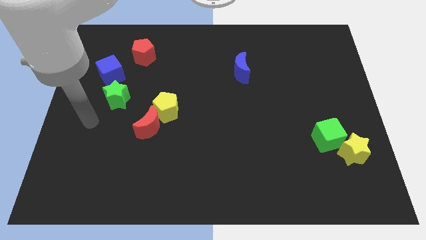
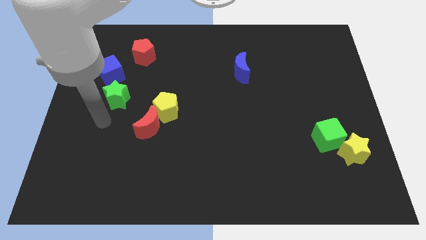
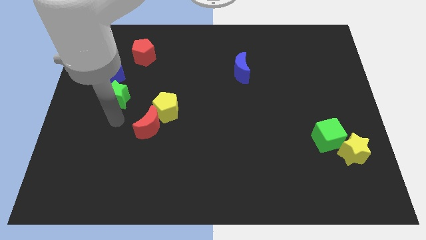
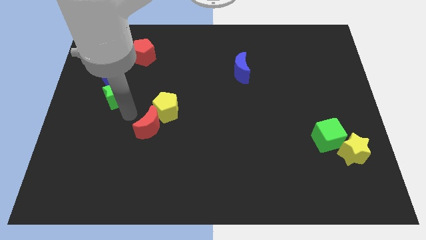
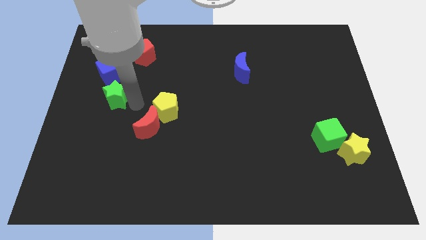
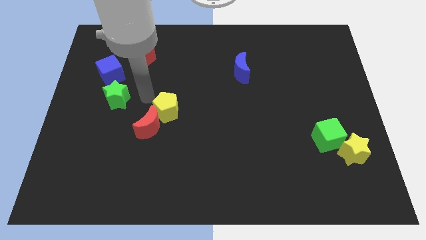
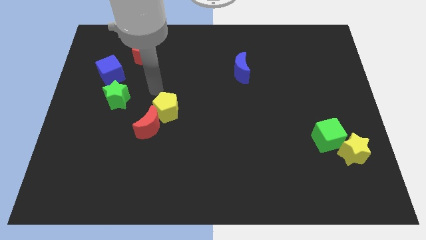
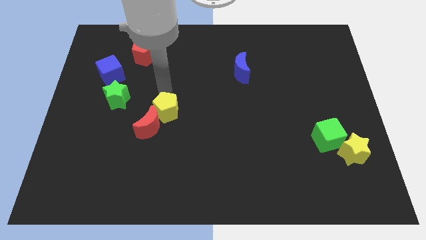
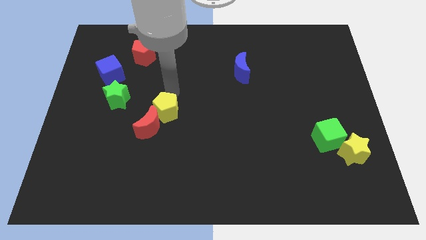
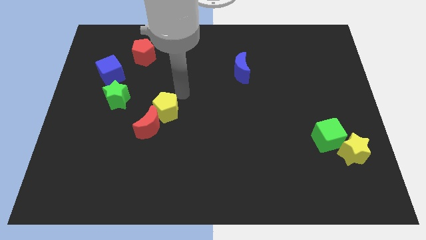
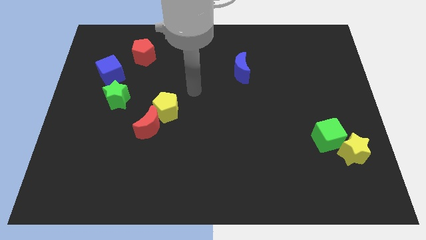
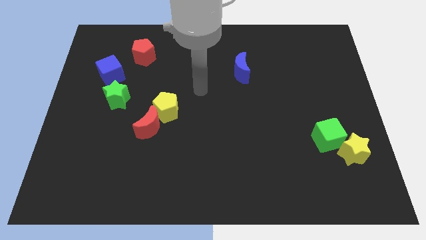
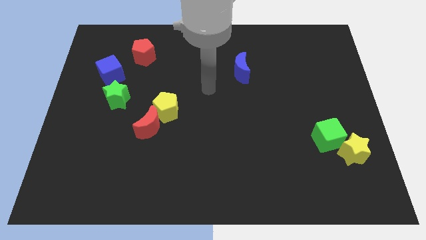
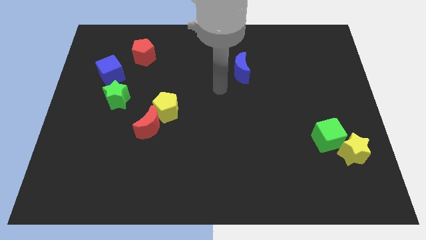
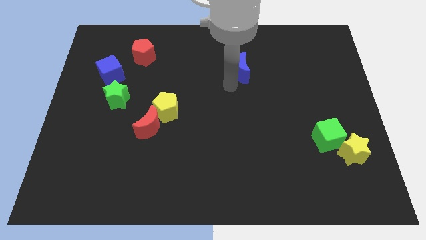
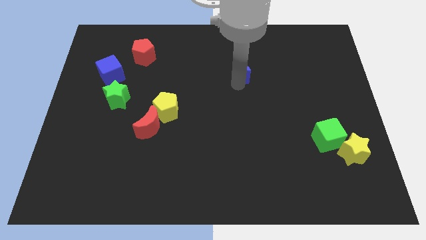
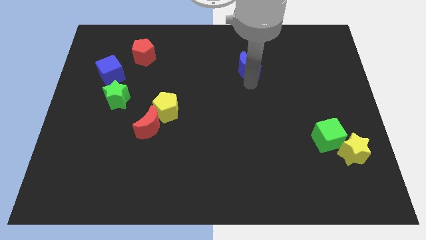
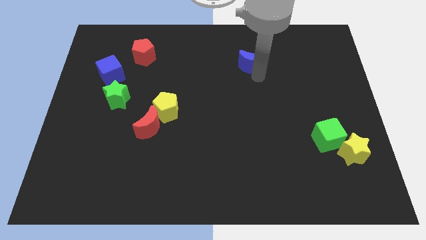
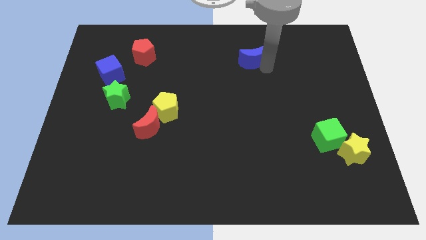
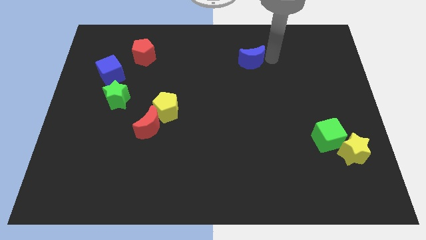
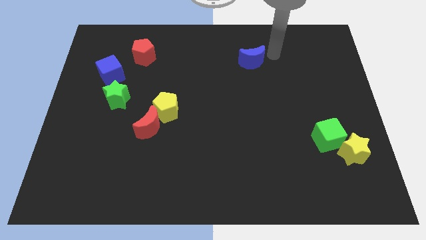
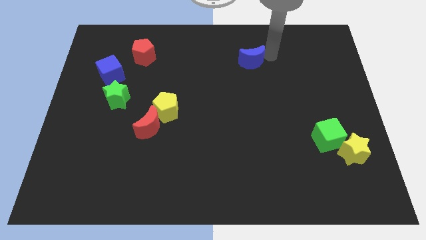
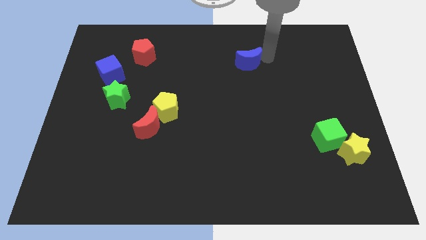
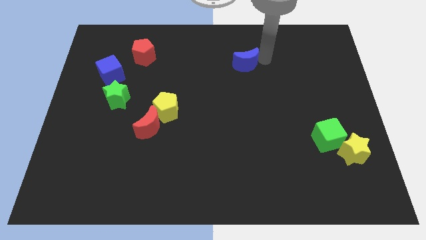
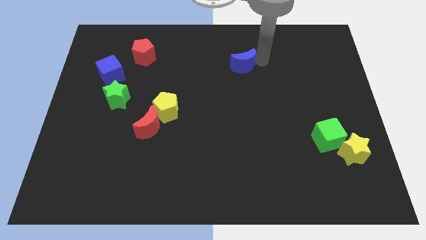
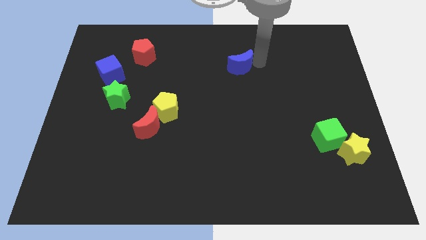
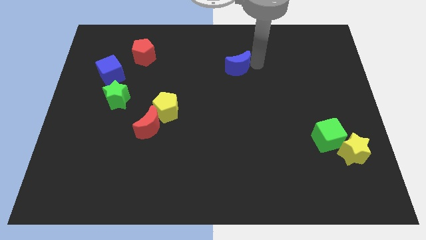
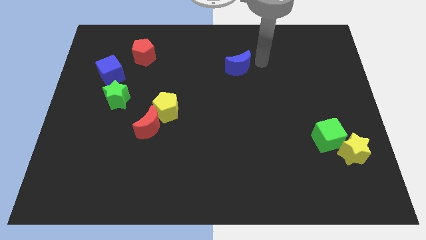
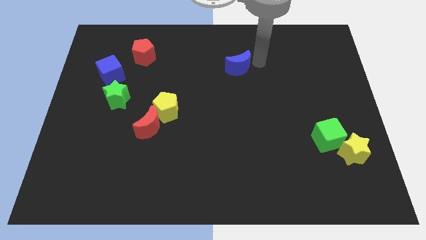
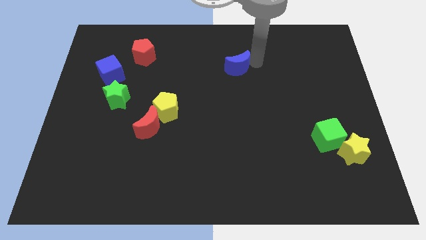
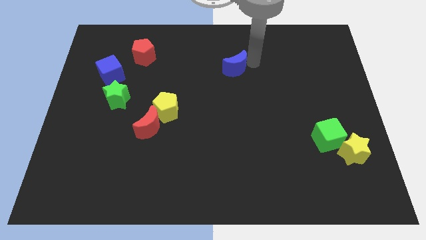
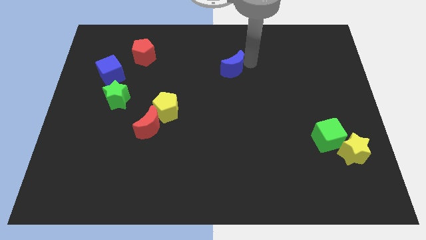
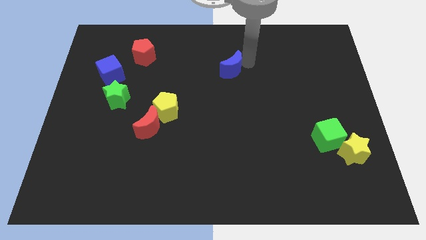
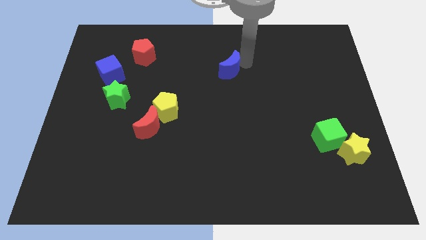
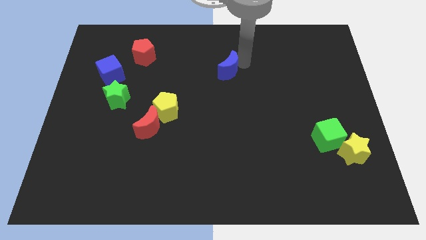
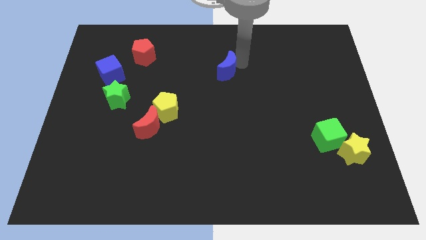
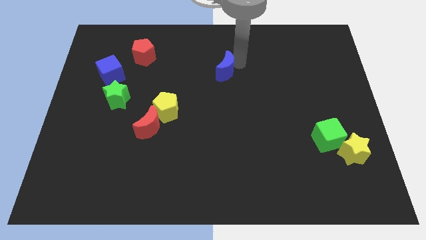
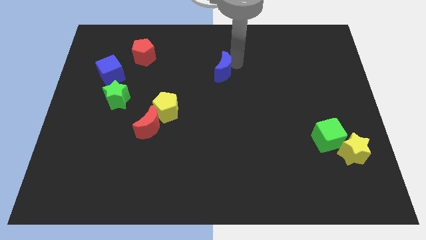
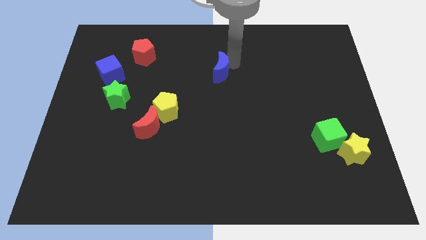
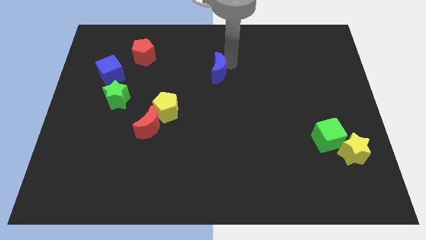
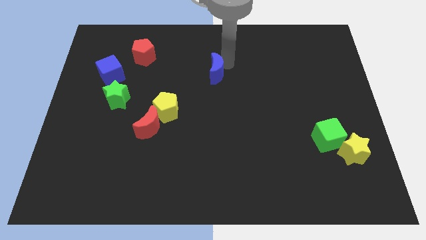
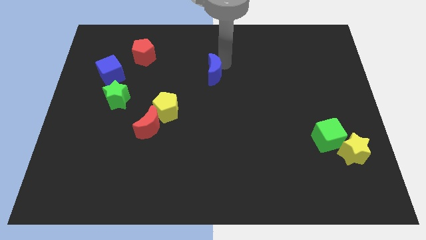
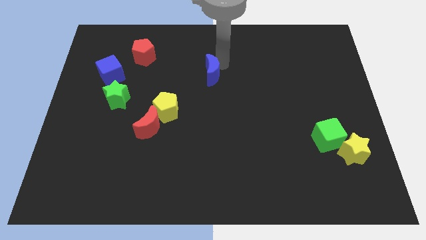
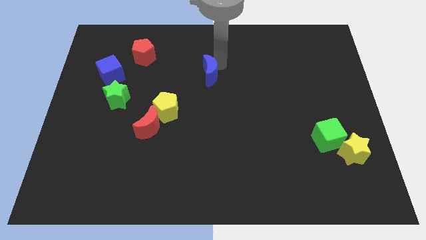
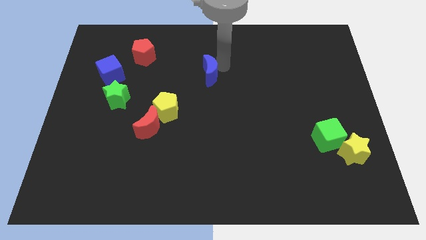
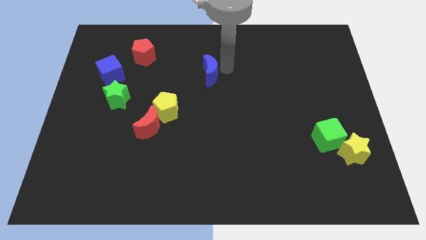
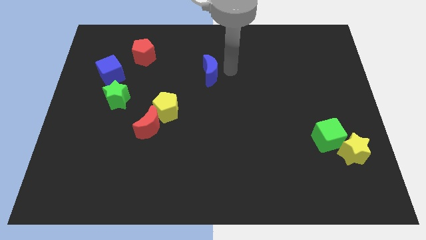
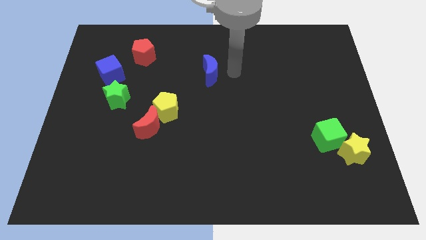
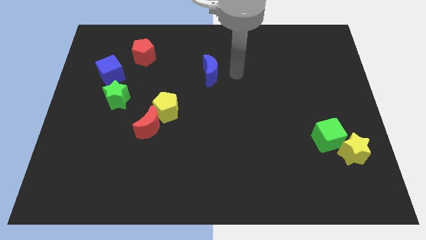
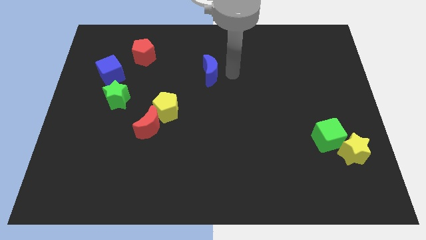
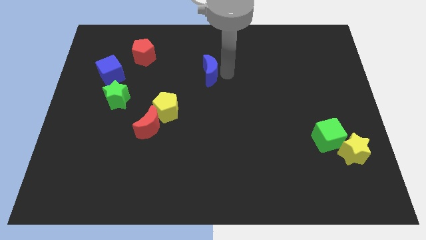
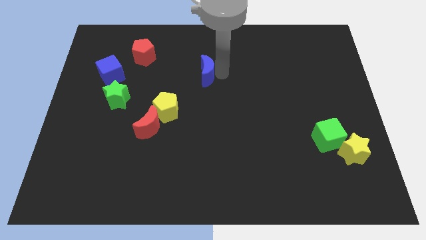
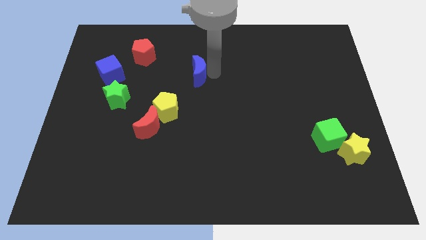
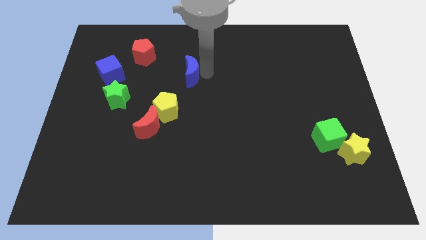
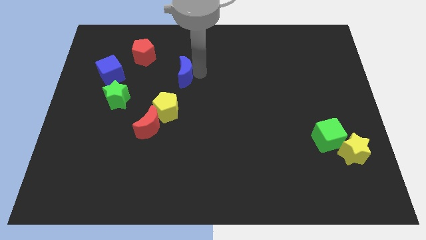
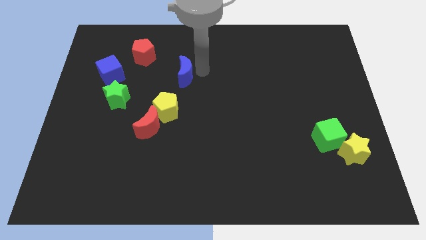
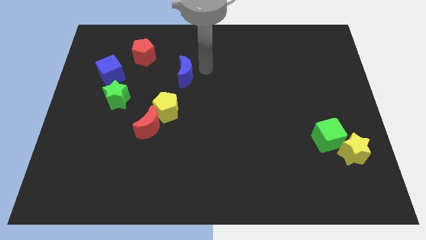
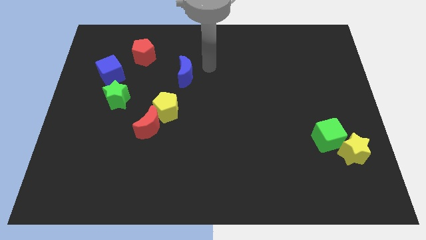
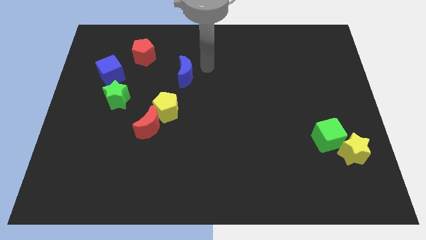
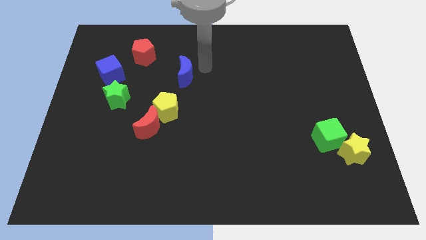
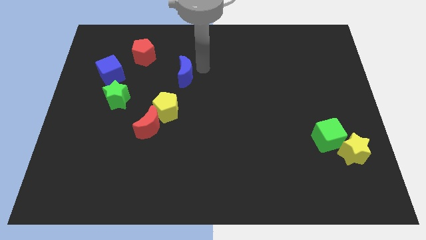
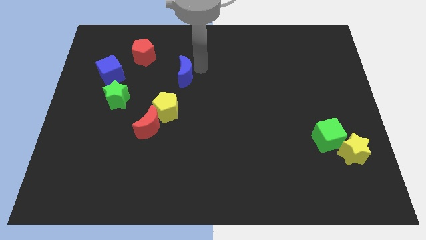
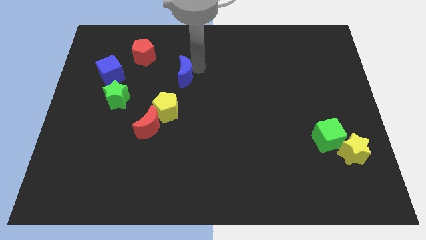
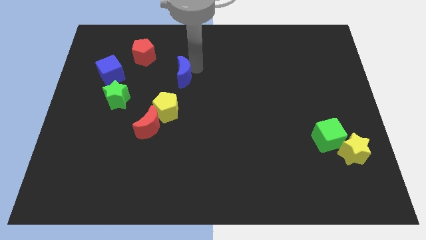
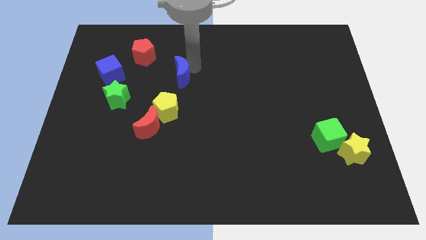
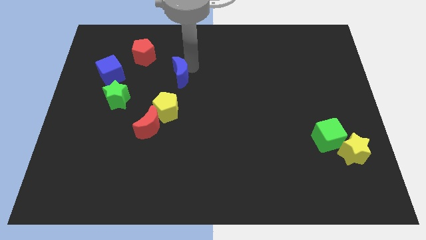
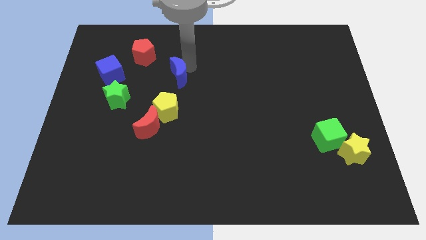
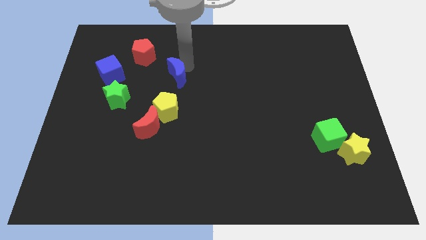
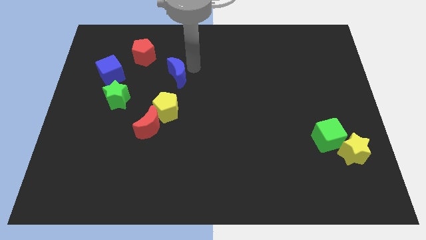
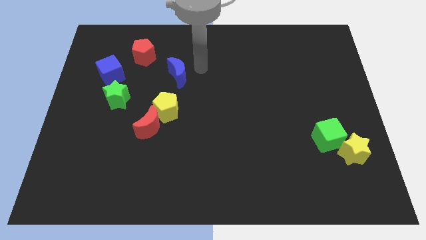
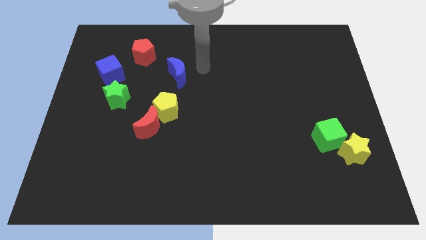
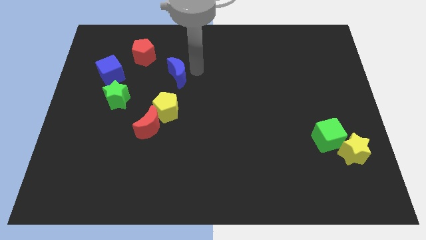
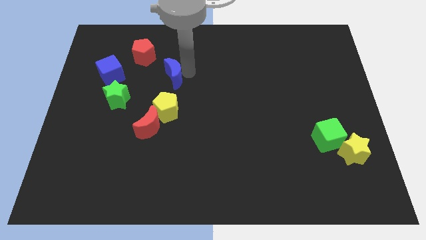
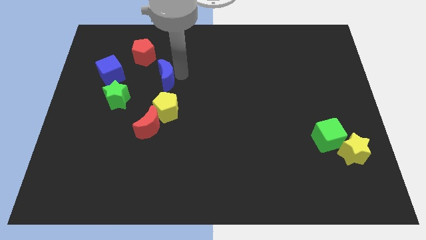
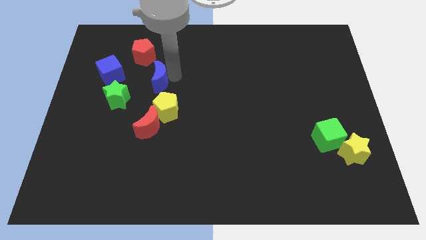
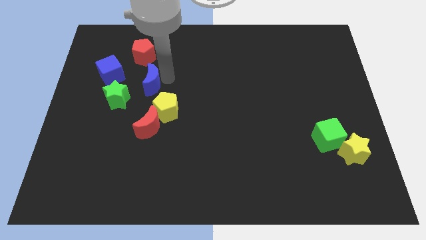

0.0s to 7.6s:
move the blue moon below the red pentagon

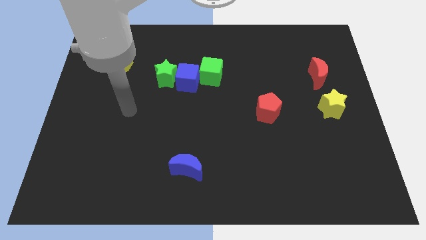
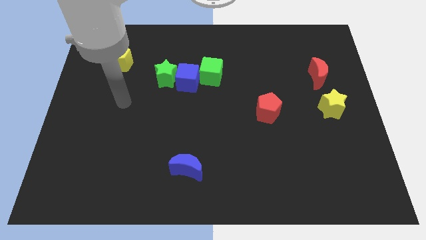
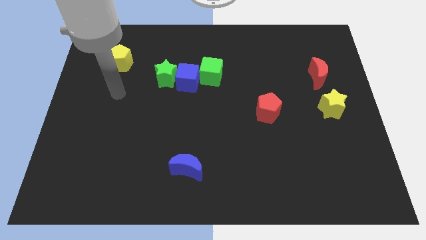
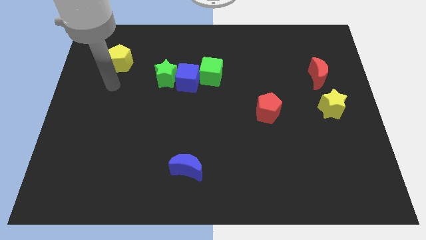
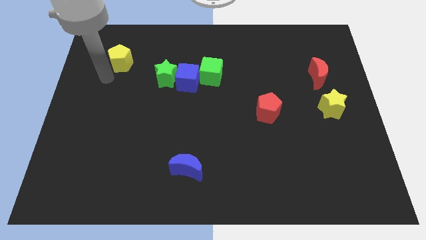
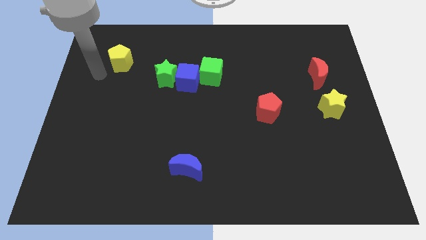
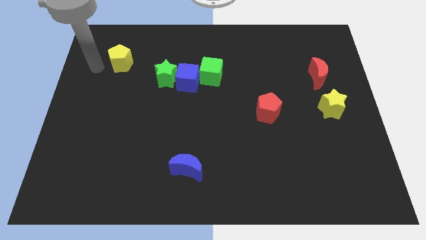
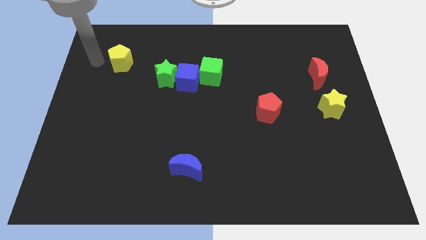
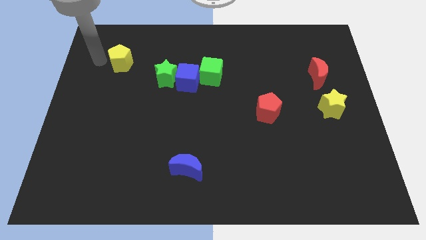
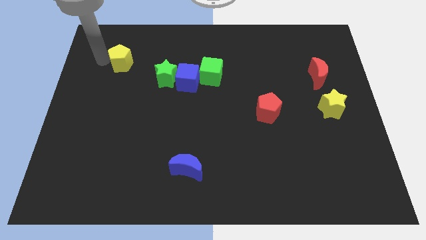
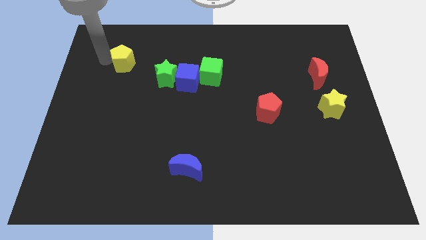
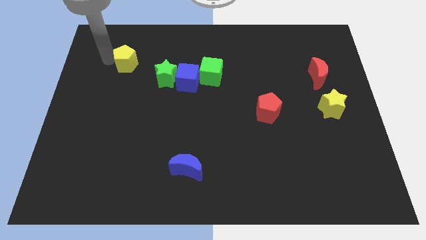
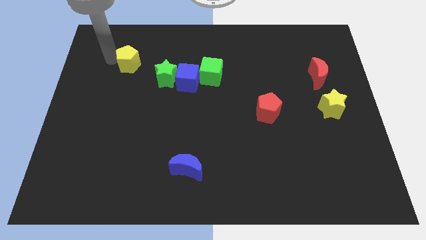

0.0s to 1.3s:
push the yellow pentagon to the top left side of the green star
